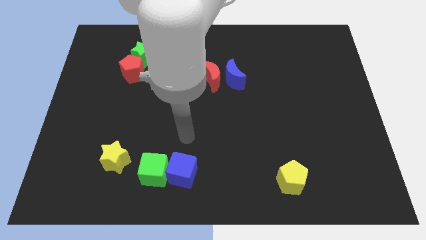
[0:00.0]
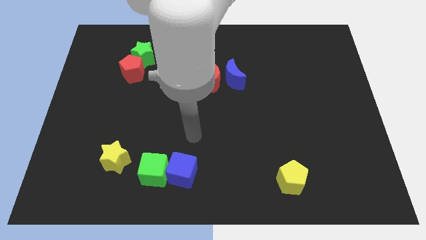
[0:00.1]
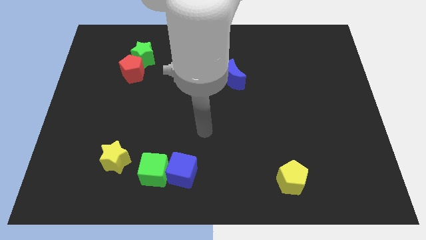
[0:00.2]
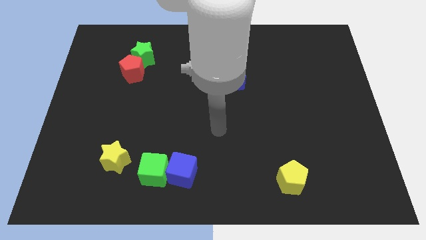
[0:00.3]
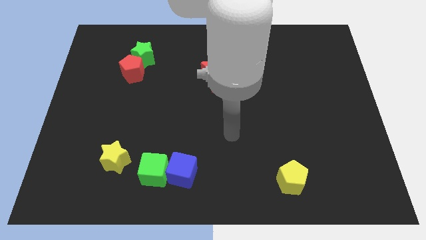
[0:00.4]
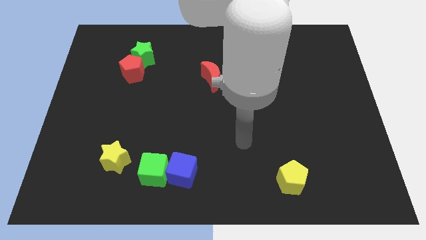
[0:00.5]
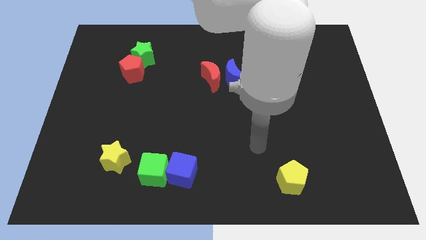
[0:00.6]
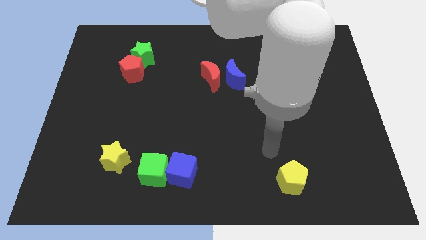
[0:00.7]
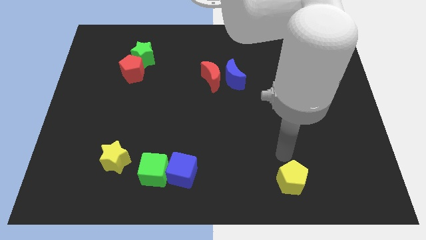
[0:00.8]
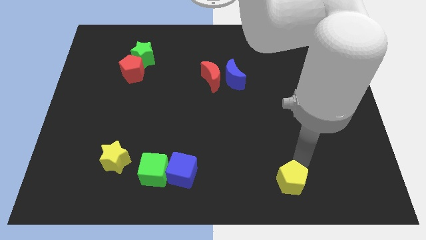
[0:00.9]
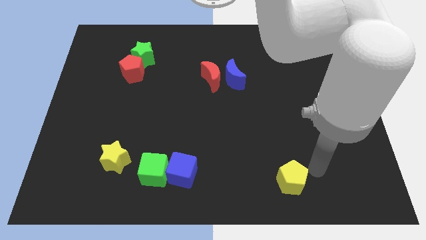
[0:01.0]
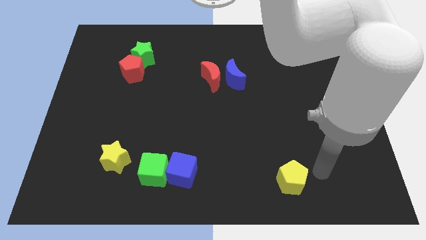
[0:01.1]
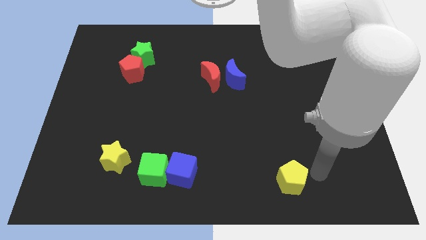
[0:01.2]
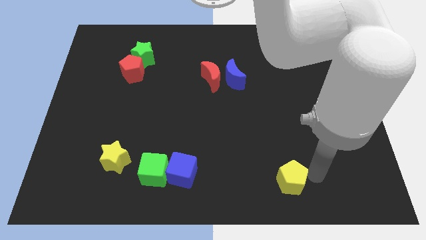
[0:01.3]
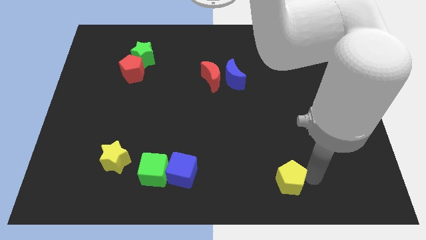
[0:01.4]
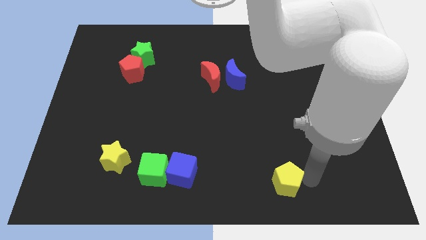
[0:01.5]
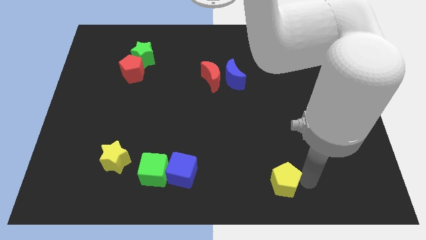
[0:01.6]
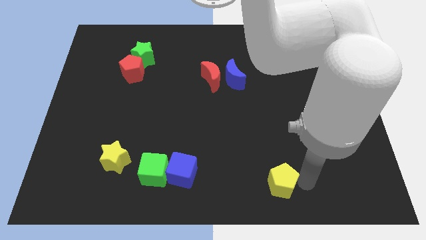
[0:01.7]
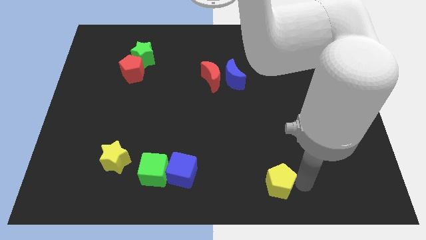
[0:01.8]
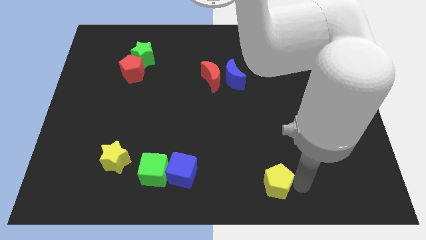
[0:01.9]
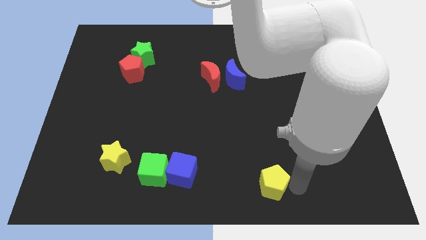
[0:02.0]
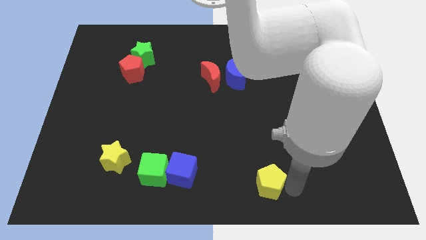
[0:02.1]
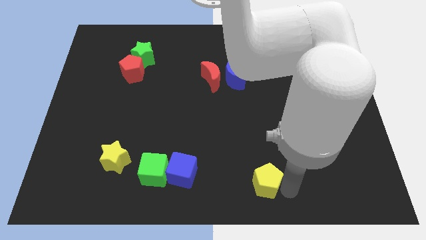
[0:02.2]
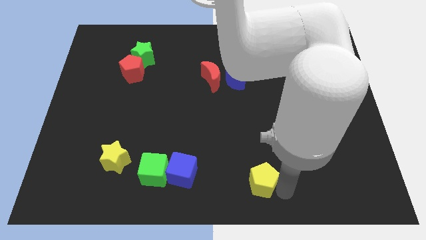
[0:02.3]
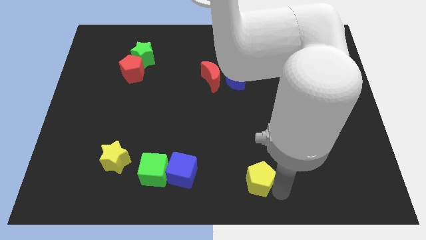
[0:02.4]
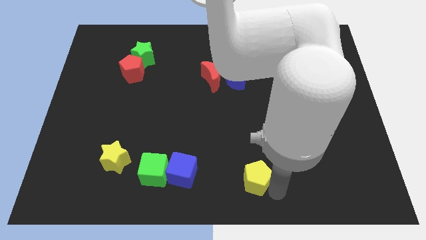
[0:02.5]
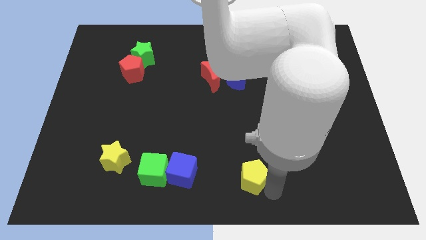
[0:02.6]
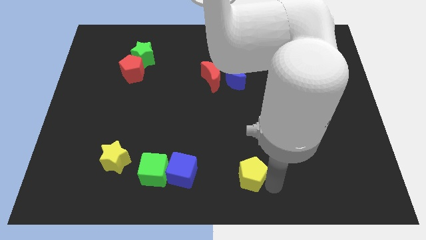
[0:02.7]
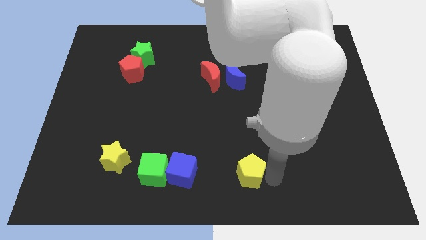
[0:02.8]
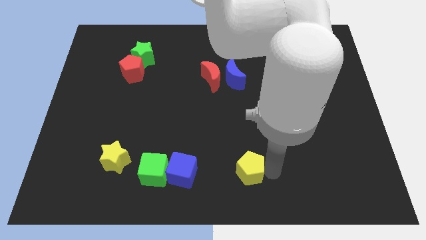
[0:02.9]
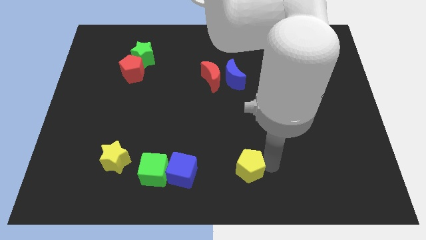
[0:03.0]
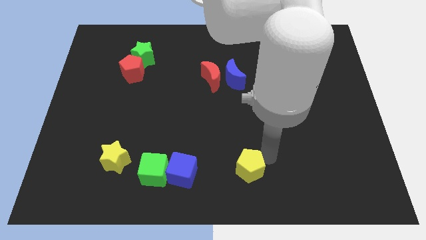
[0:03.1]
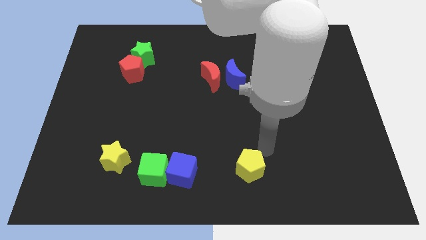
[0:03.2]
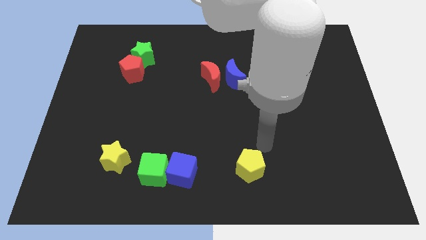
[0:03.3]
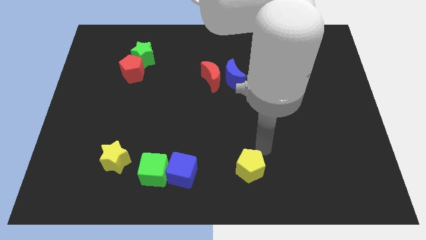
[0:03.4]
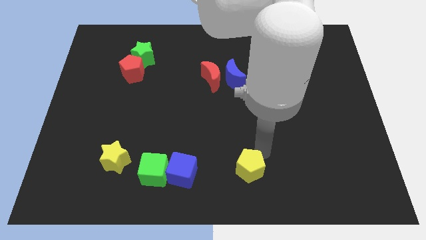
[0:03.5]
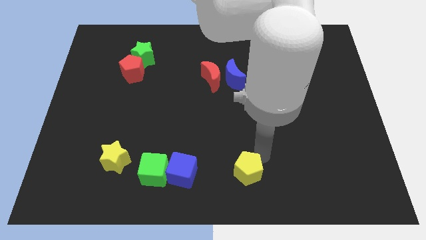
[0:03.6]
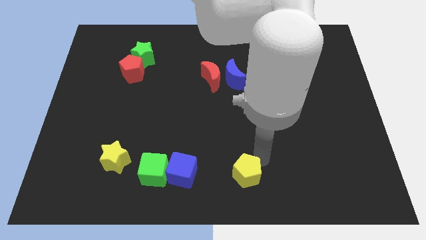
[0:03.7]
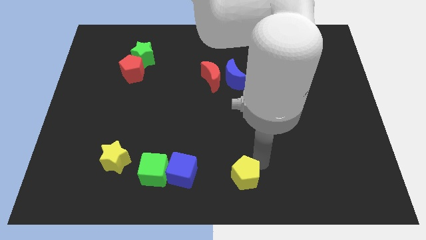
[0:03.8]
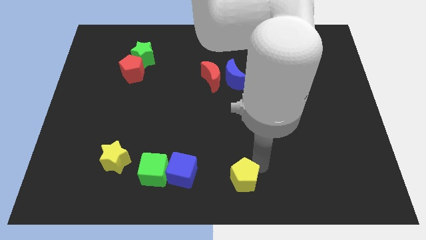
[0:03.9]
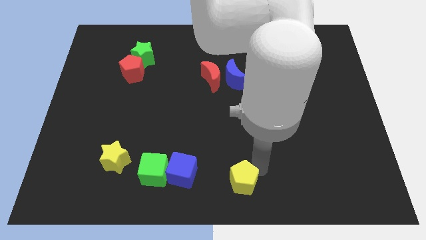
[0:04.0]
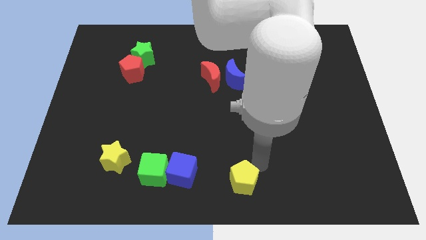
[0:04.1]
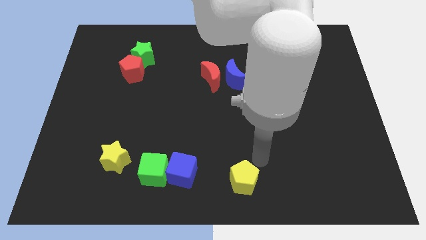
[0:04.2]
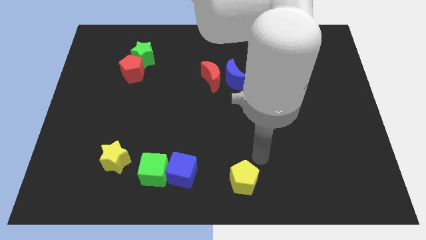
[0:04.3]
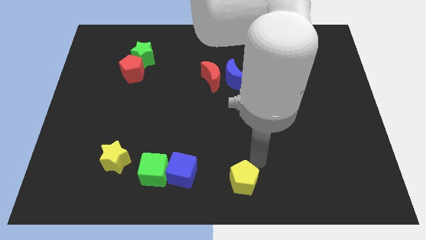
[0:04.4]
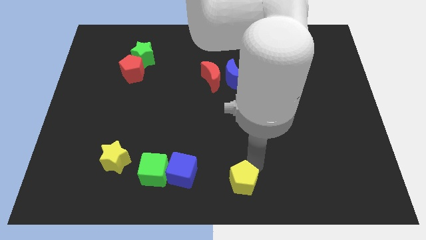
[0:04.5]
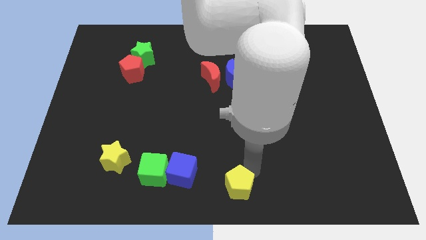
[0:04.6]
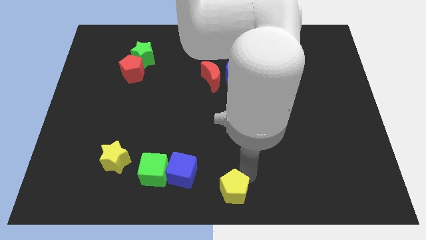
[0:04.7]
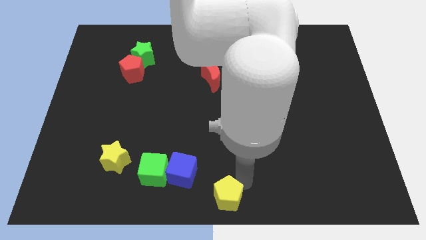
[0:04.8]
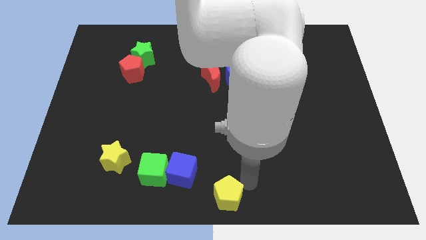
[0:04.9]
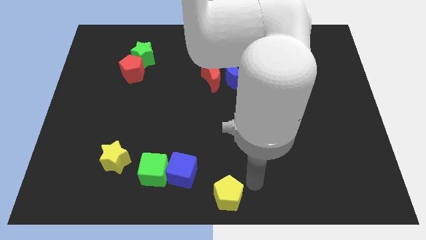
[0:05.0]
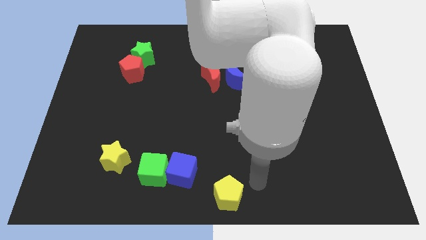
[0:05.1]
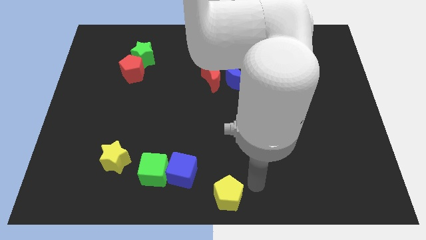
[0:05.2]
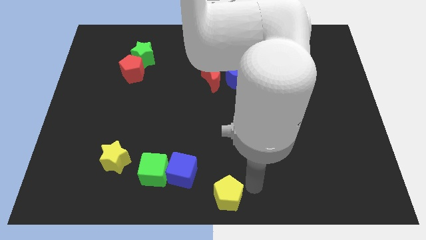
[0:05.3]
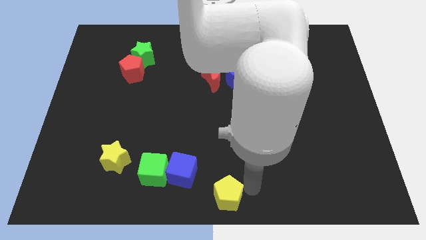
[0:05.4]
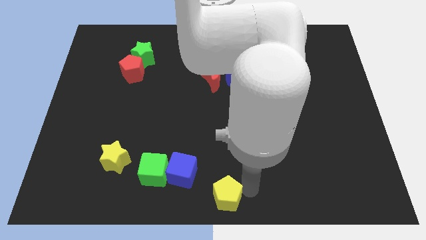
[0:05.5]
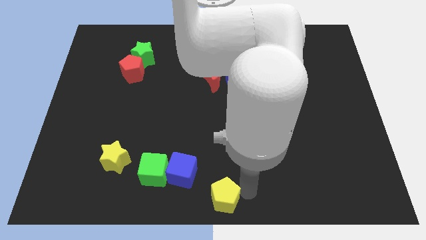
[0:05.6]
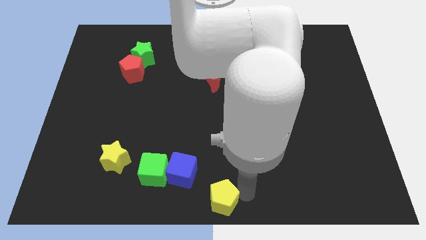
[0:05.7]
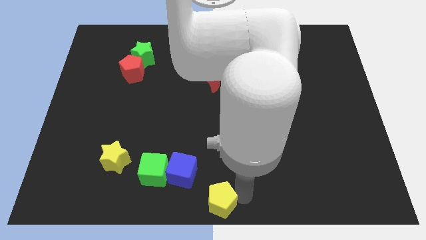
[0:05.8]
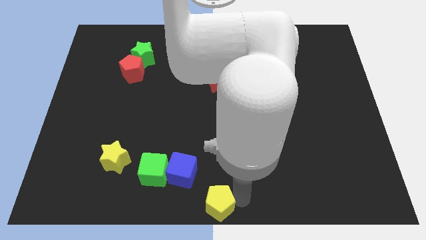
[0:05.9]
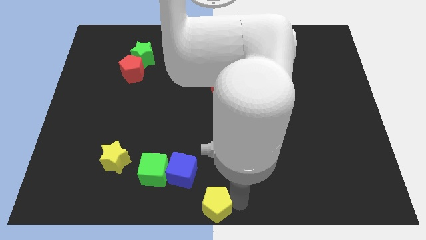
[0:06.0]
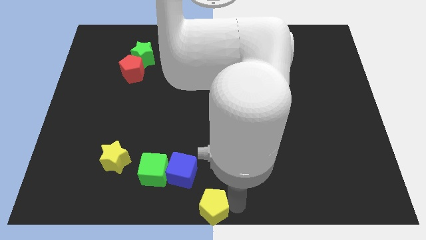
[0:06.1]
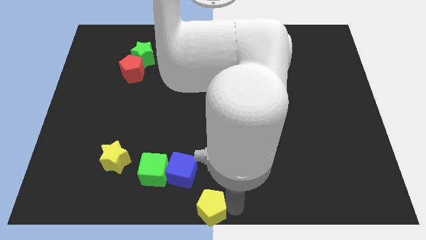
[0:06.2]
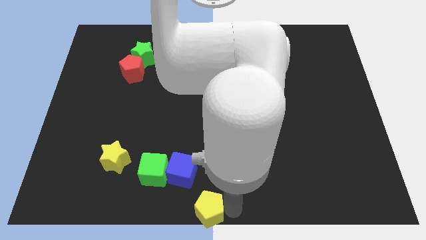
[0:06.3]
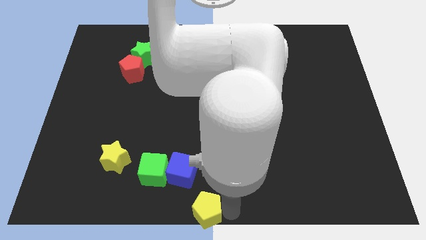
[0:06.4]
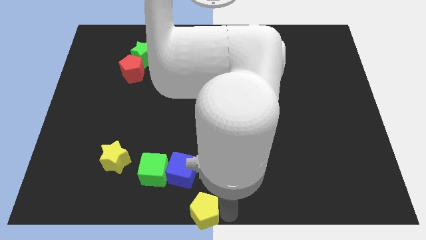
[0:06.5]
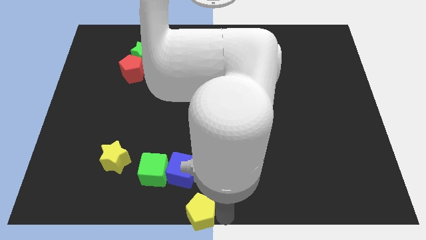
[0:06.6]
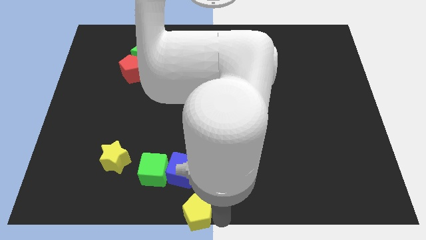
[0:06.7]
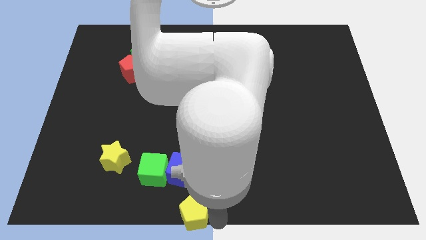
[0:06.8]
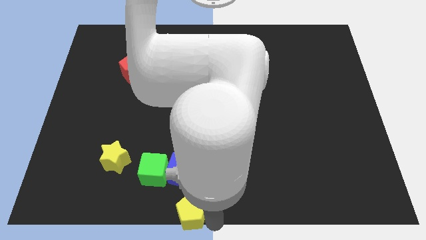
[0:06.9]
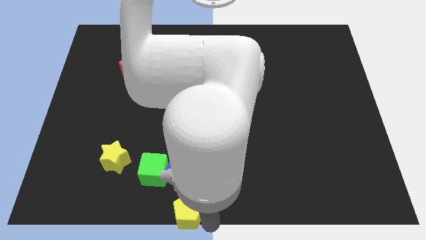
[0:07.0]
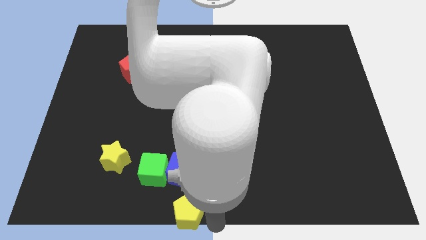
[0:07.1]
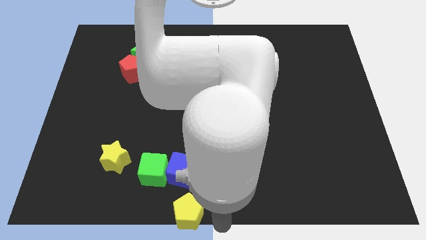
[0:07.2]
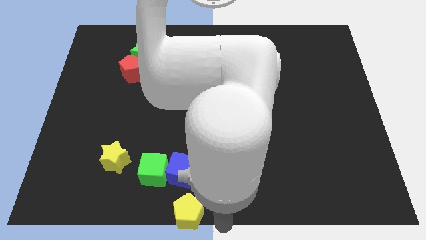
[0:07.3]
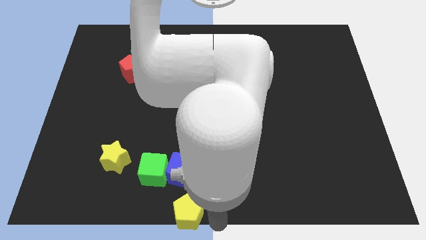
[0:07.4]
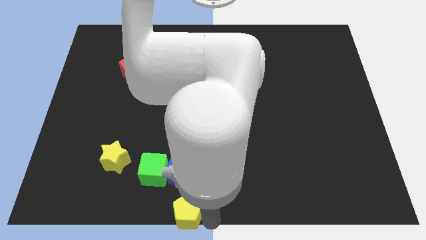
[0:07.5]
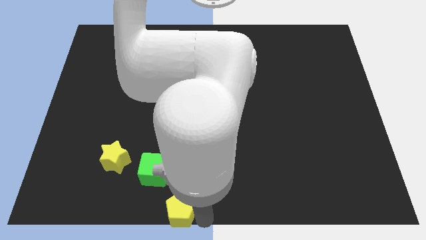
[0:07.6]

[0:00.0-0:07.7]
slide the yellow pentagon left

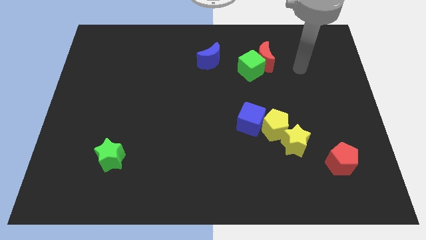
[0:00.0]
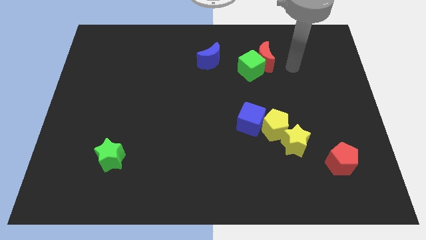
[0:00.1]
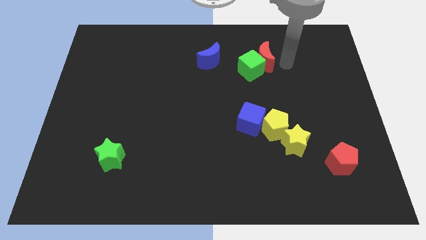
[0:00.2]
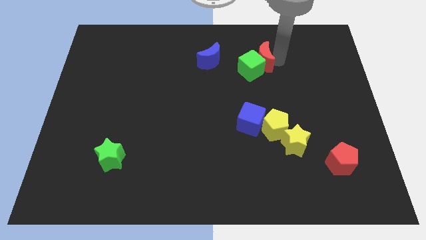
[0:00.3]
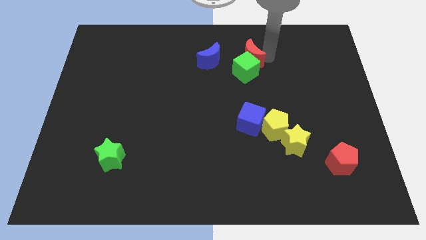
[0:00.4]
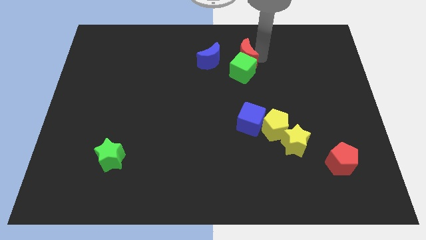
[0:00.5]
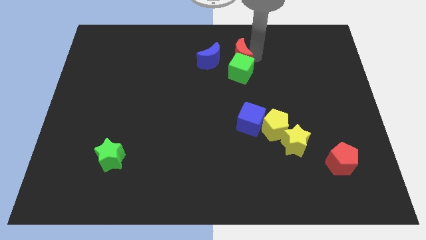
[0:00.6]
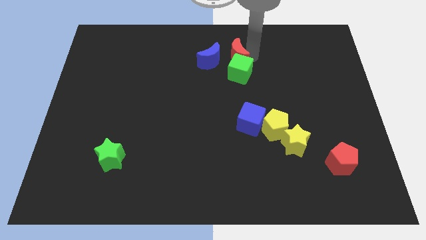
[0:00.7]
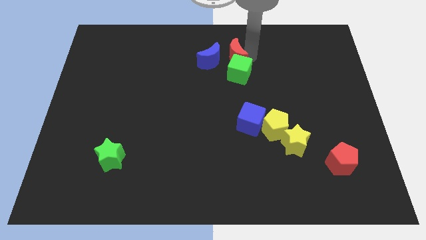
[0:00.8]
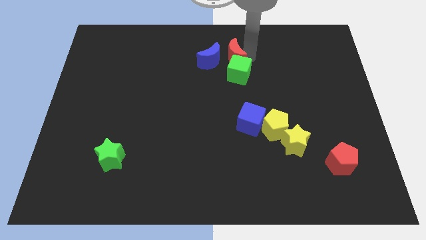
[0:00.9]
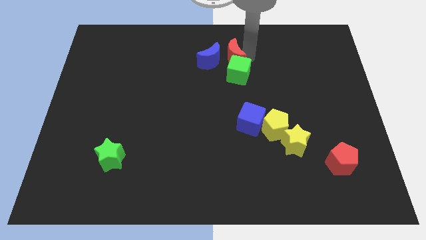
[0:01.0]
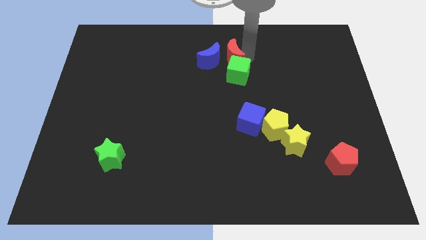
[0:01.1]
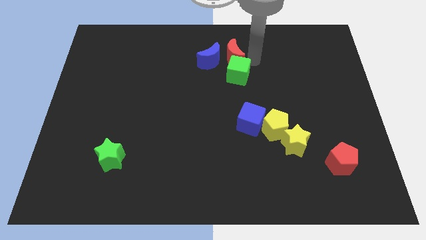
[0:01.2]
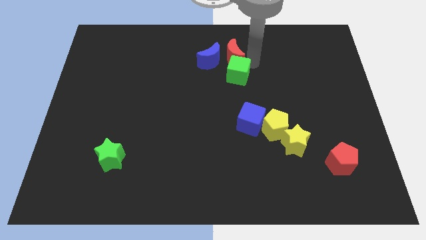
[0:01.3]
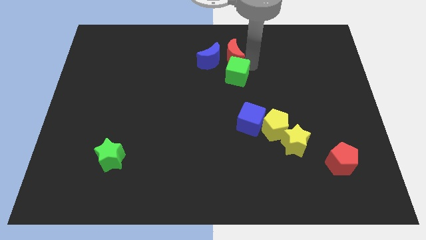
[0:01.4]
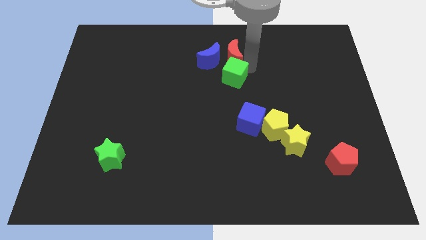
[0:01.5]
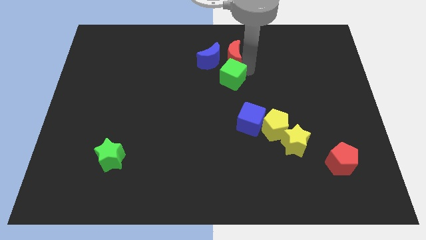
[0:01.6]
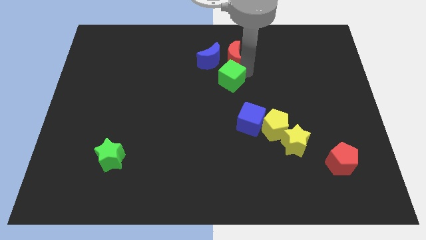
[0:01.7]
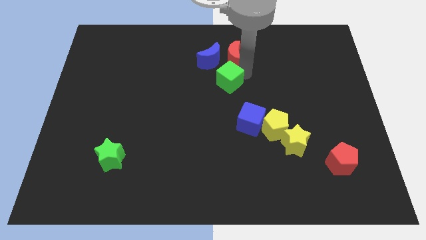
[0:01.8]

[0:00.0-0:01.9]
slide the green cube diagonally down and to the left slightly
